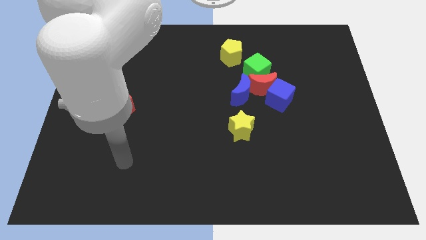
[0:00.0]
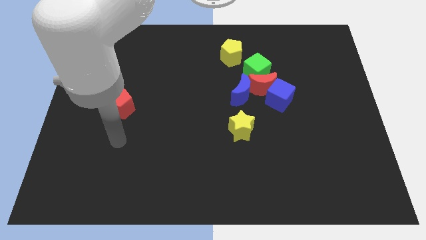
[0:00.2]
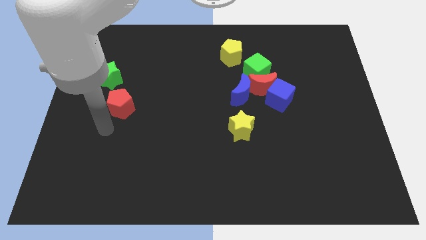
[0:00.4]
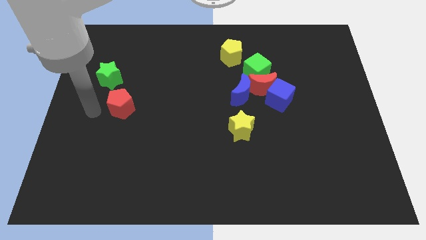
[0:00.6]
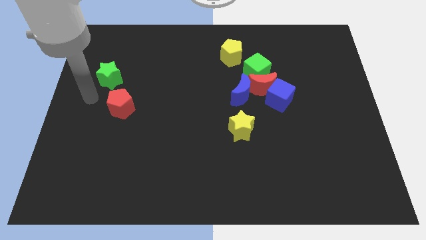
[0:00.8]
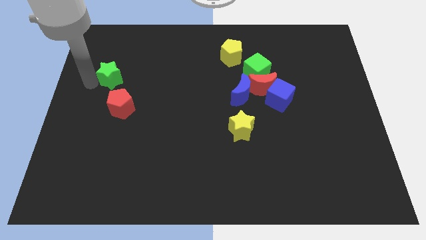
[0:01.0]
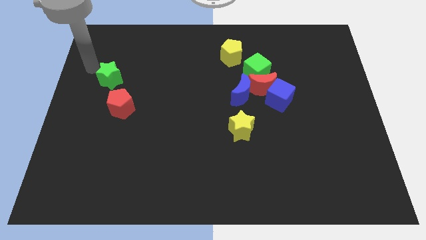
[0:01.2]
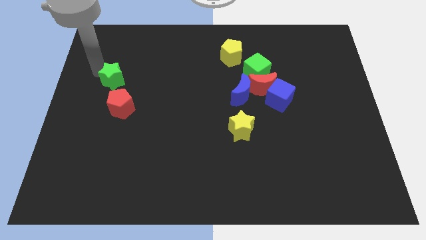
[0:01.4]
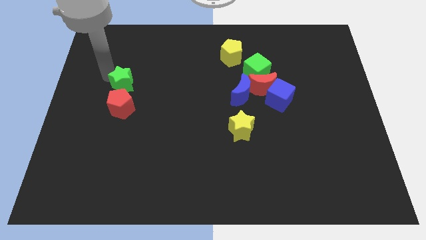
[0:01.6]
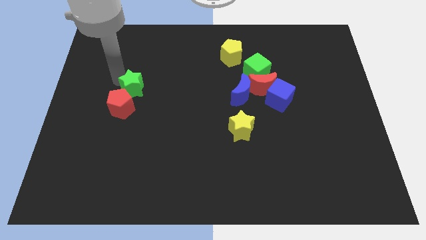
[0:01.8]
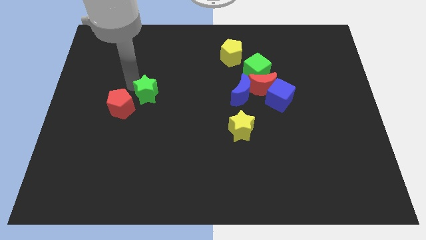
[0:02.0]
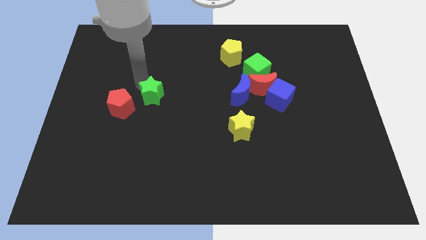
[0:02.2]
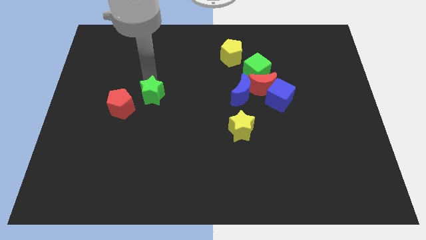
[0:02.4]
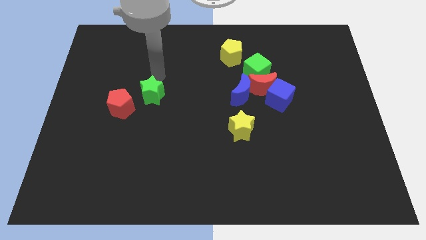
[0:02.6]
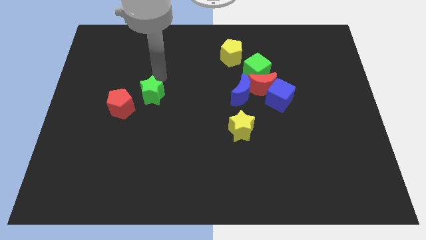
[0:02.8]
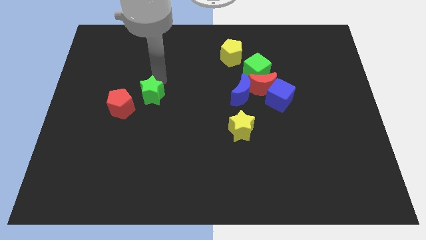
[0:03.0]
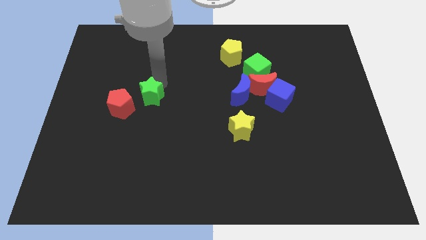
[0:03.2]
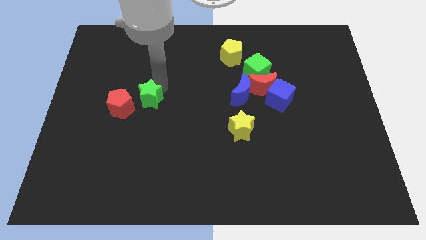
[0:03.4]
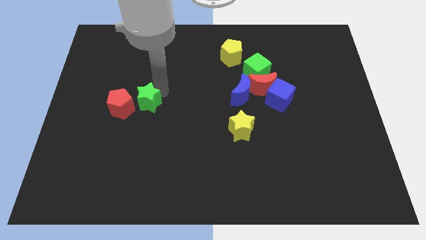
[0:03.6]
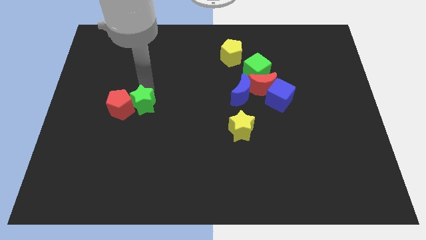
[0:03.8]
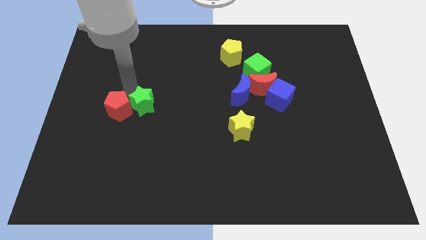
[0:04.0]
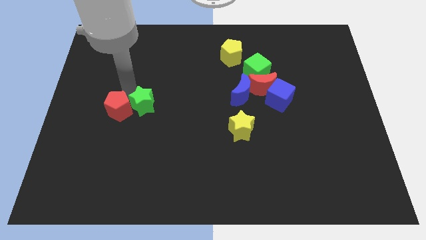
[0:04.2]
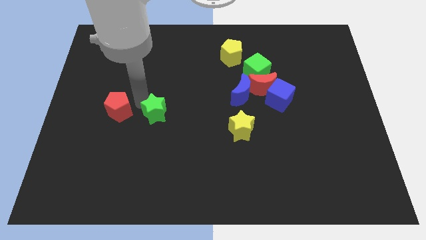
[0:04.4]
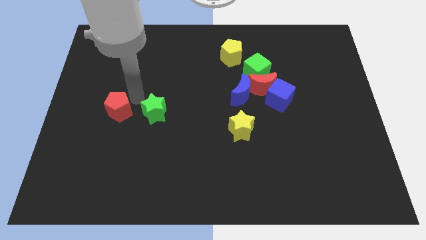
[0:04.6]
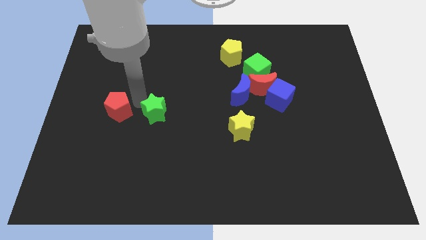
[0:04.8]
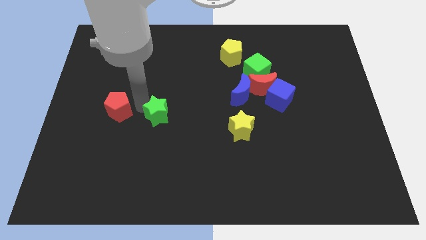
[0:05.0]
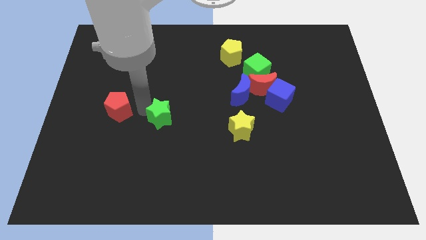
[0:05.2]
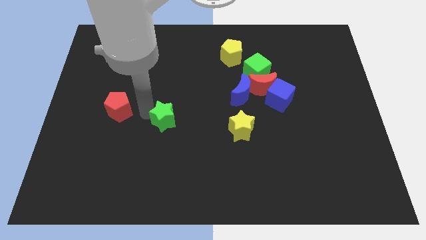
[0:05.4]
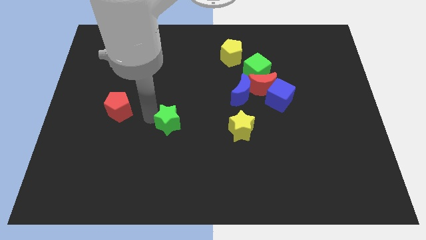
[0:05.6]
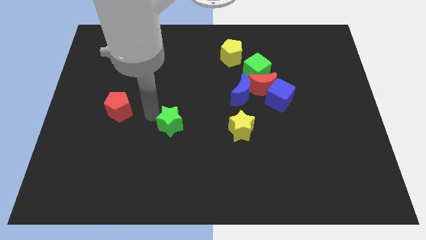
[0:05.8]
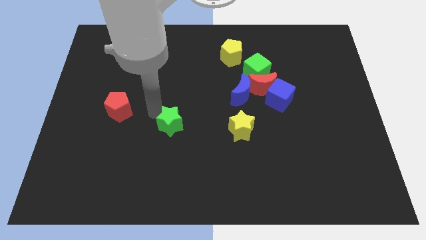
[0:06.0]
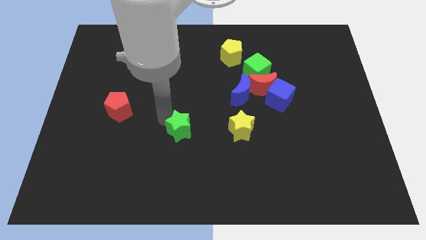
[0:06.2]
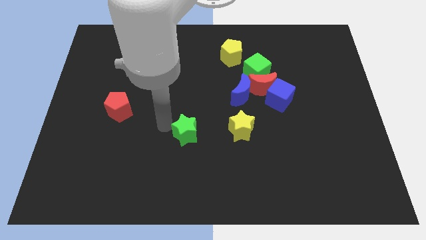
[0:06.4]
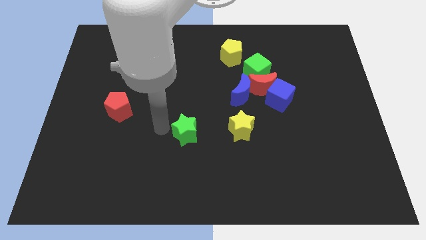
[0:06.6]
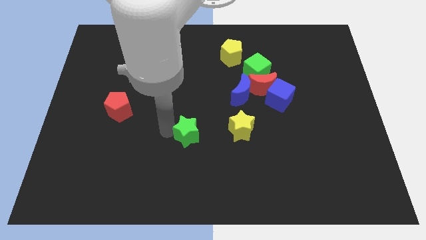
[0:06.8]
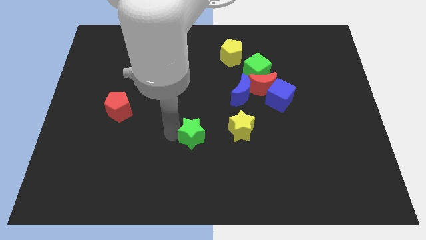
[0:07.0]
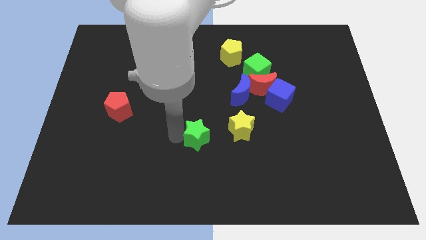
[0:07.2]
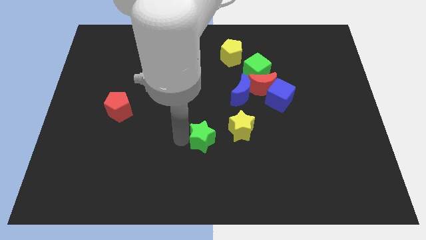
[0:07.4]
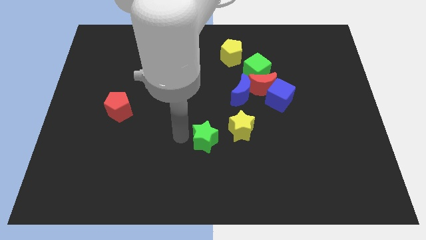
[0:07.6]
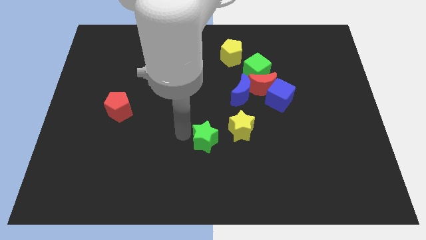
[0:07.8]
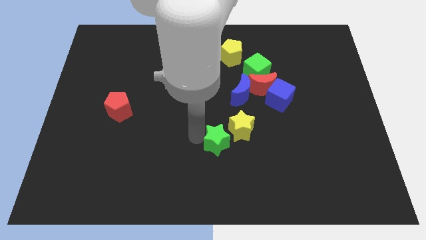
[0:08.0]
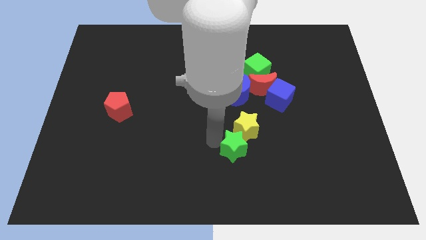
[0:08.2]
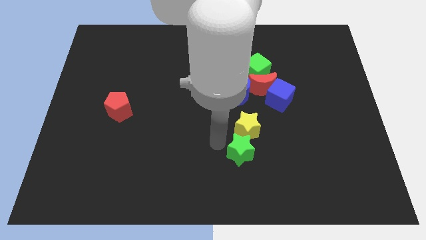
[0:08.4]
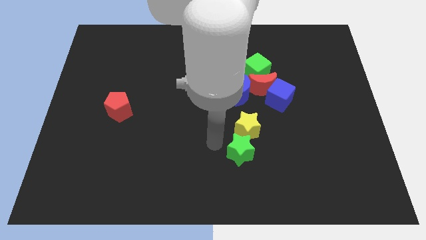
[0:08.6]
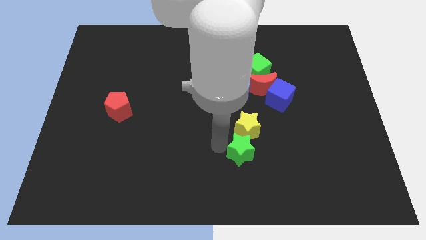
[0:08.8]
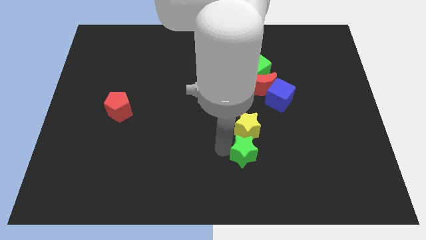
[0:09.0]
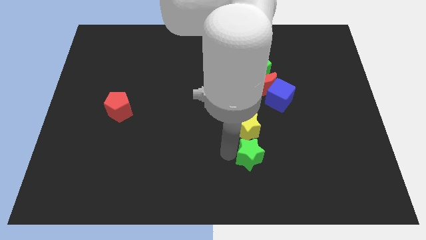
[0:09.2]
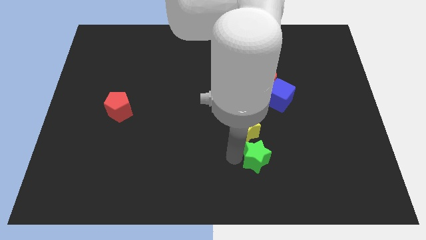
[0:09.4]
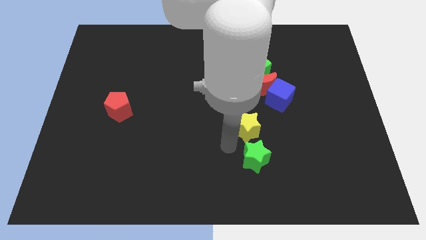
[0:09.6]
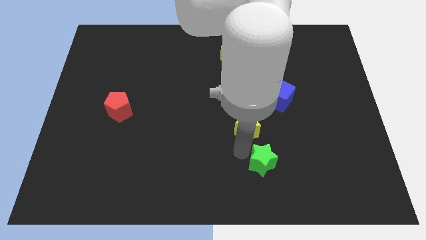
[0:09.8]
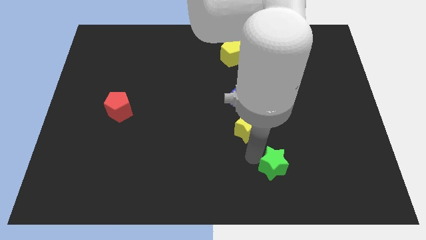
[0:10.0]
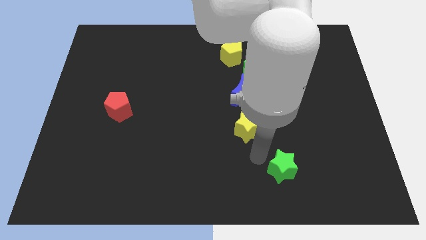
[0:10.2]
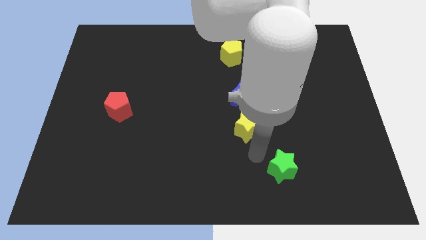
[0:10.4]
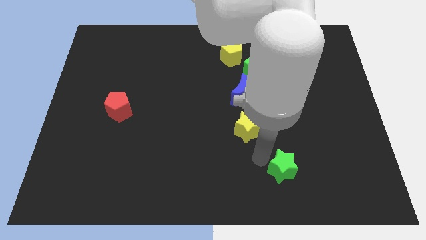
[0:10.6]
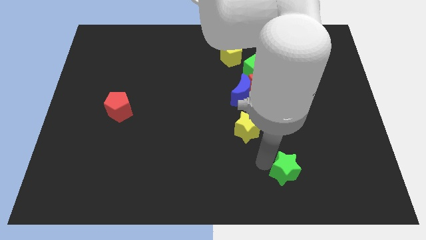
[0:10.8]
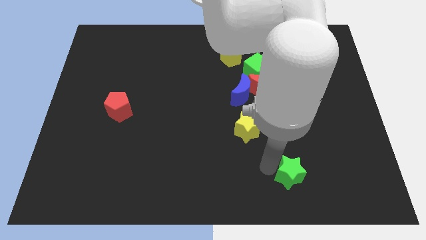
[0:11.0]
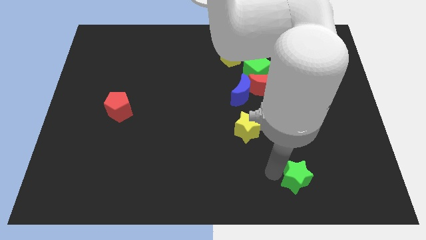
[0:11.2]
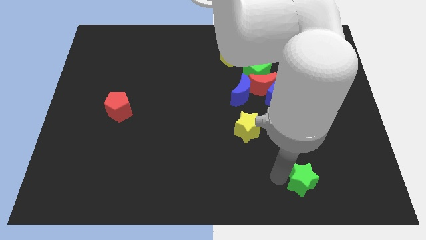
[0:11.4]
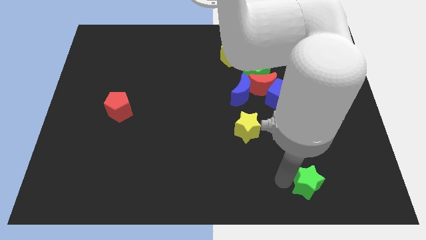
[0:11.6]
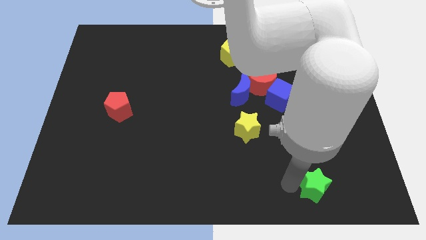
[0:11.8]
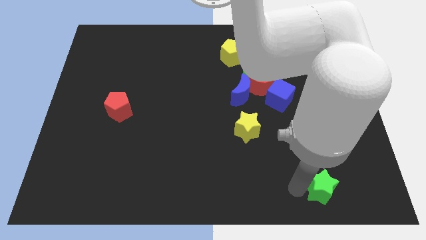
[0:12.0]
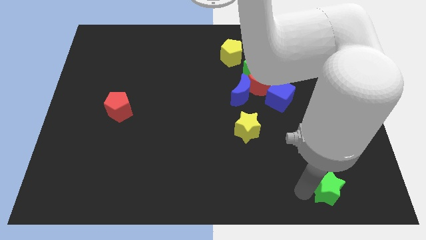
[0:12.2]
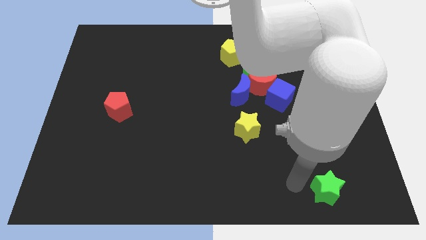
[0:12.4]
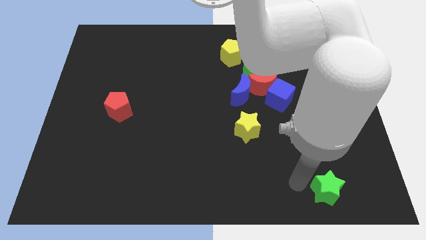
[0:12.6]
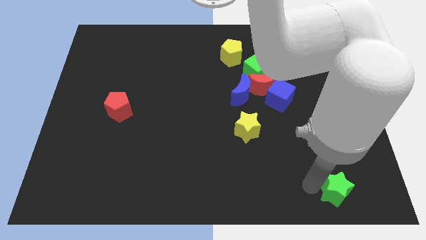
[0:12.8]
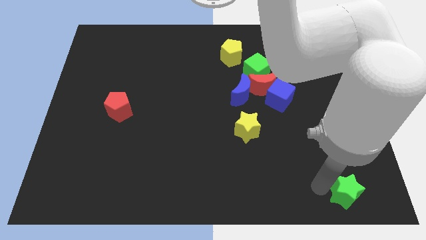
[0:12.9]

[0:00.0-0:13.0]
move the green star to the bottom right
